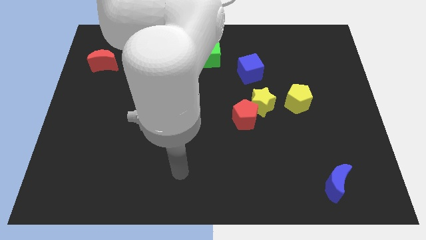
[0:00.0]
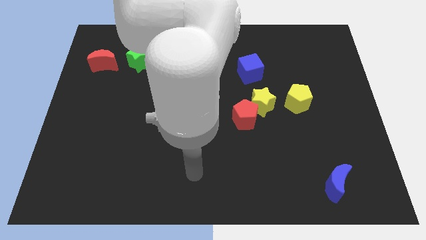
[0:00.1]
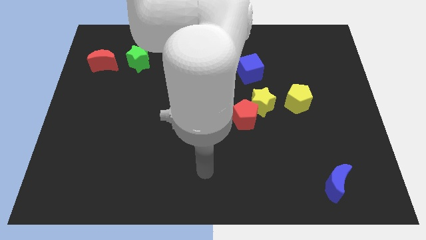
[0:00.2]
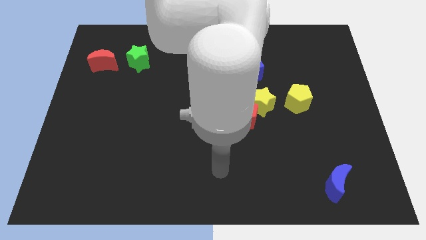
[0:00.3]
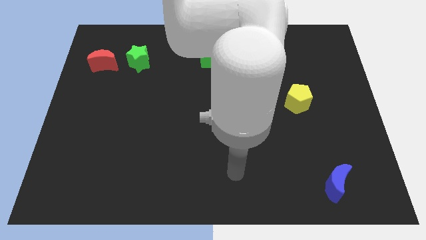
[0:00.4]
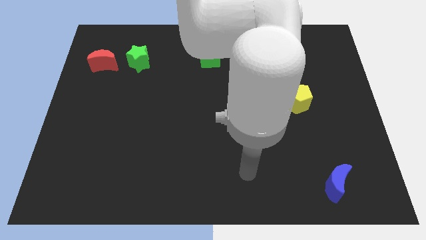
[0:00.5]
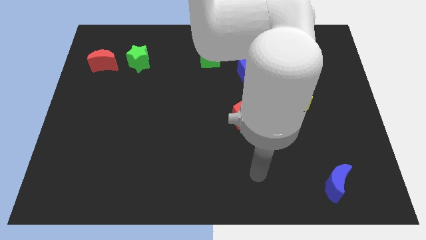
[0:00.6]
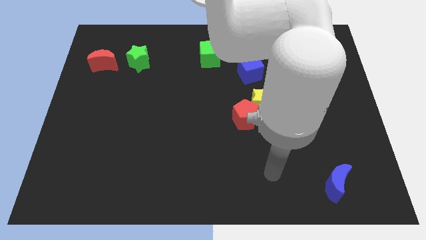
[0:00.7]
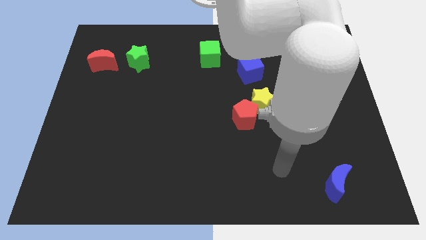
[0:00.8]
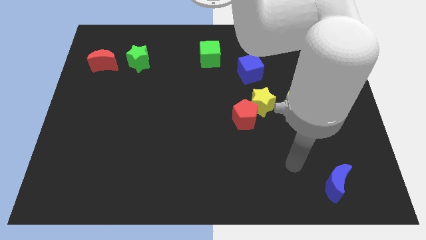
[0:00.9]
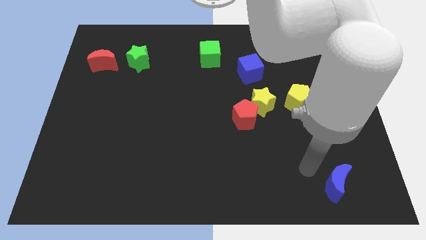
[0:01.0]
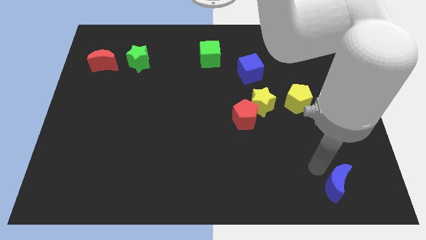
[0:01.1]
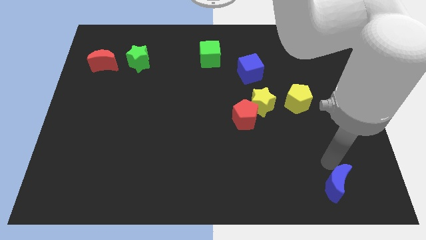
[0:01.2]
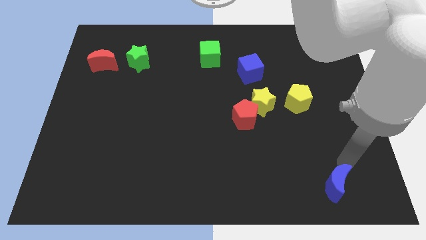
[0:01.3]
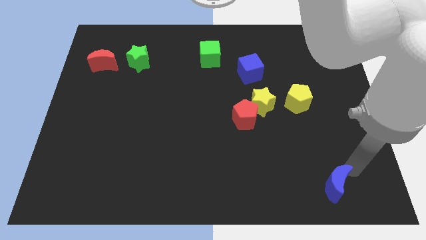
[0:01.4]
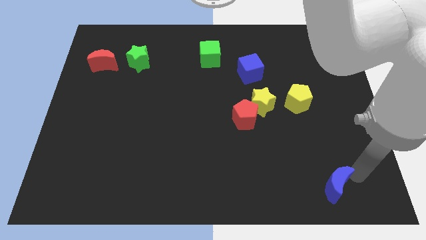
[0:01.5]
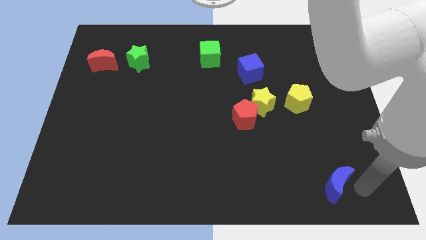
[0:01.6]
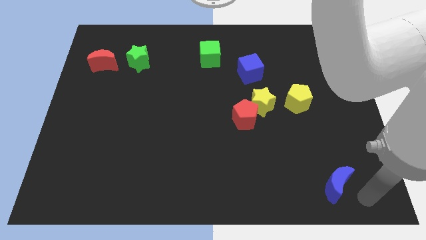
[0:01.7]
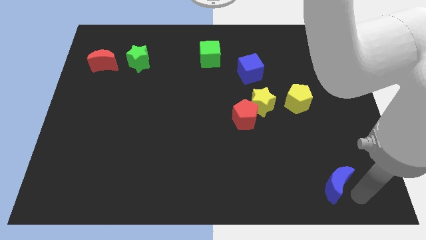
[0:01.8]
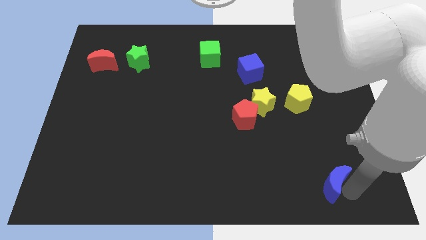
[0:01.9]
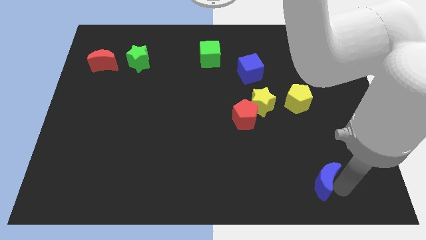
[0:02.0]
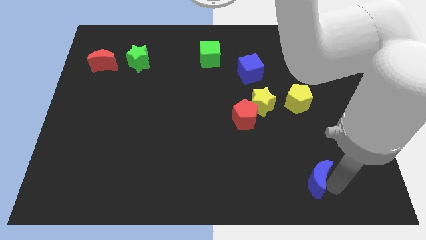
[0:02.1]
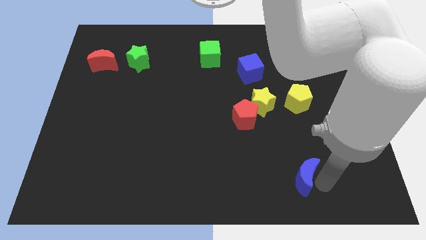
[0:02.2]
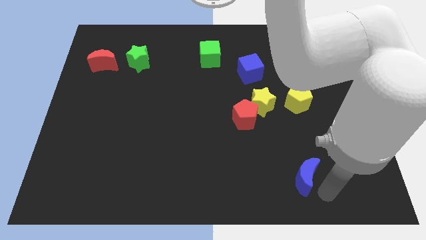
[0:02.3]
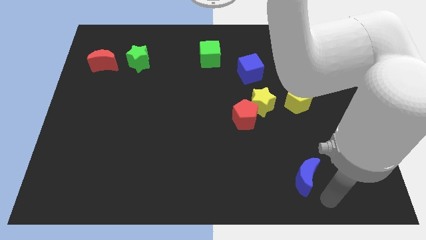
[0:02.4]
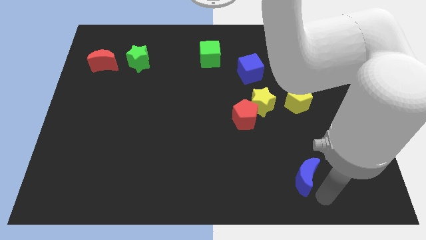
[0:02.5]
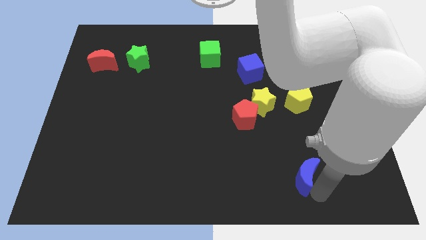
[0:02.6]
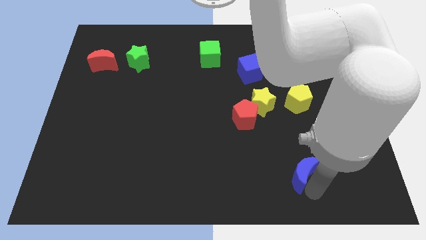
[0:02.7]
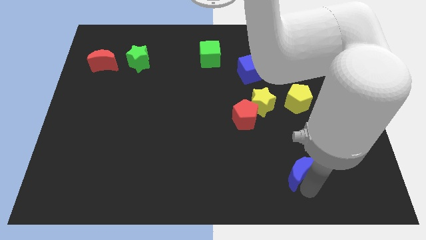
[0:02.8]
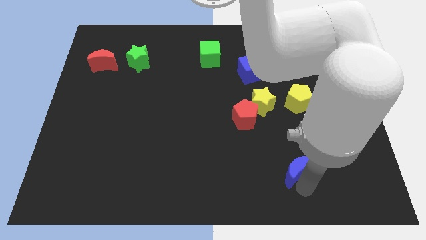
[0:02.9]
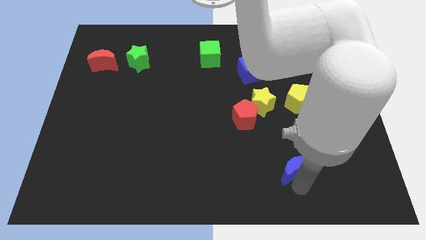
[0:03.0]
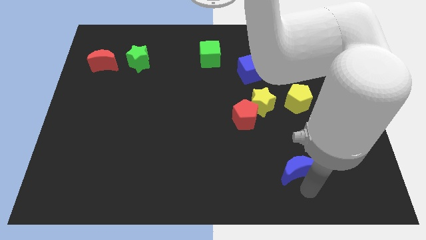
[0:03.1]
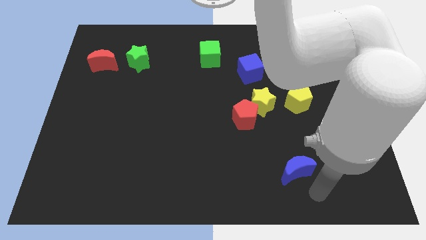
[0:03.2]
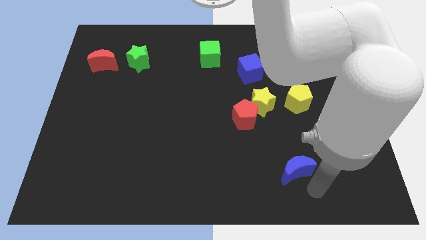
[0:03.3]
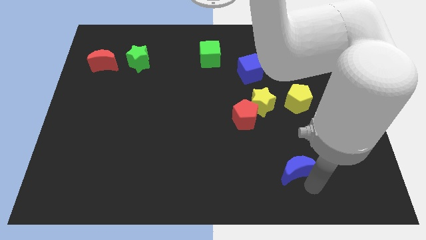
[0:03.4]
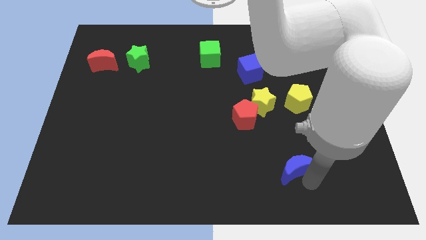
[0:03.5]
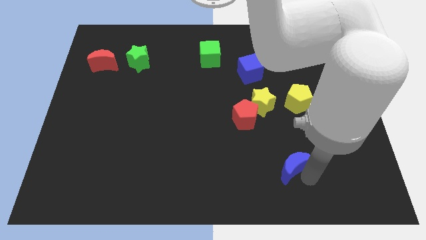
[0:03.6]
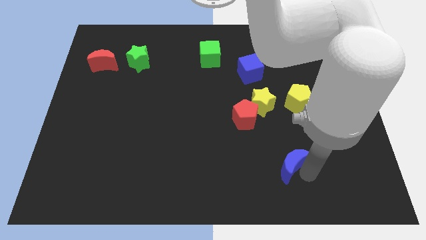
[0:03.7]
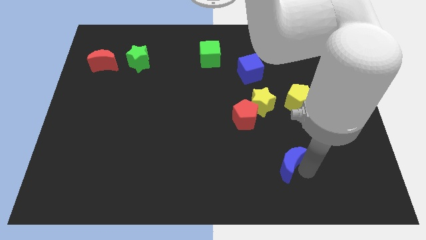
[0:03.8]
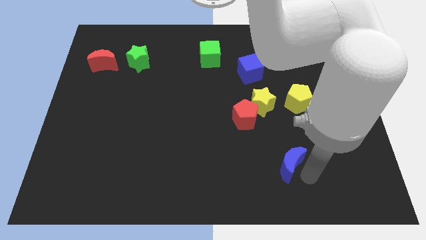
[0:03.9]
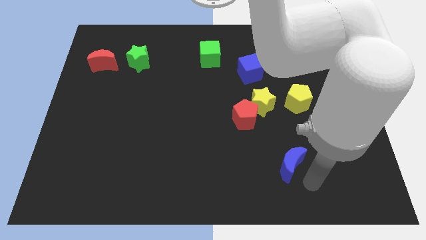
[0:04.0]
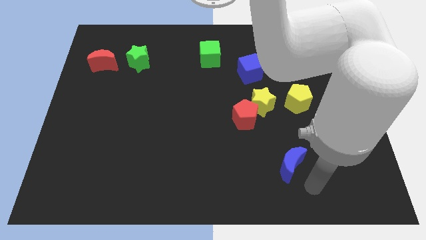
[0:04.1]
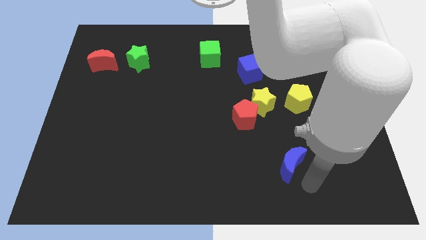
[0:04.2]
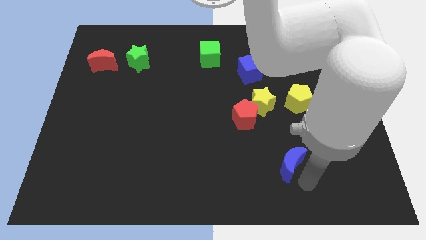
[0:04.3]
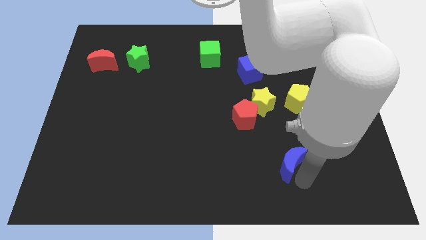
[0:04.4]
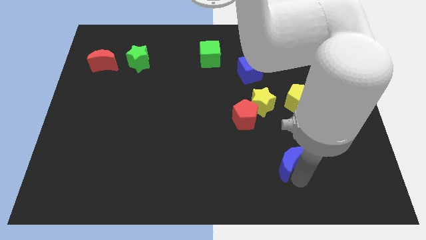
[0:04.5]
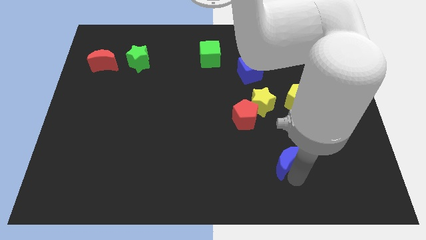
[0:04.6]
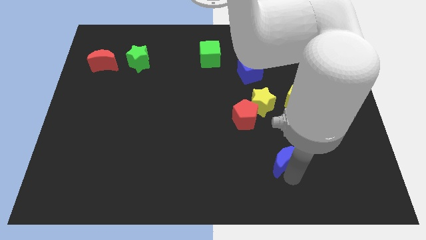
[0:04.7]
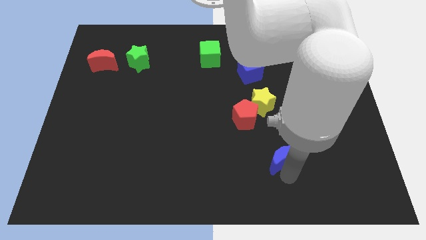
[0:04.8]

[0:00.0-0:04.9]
slide the blue moon below the yellow star

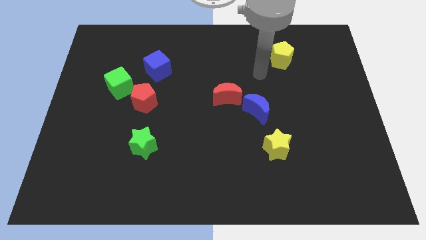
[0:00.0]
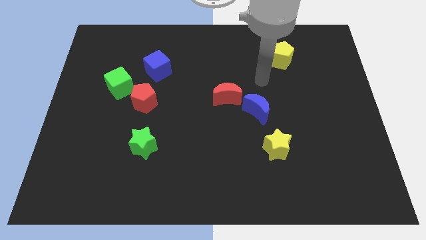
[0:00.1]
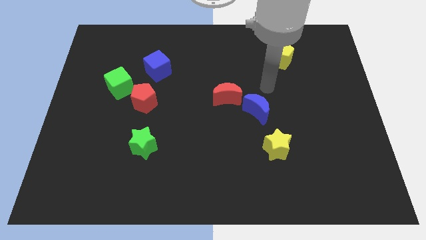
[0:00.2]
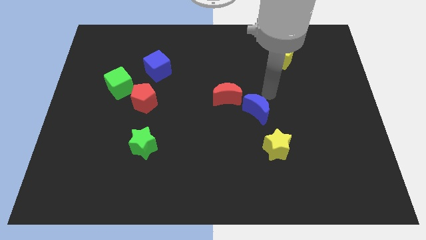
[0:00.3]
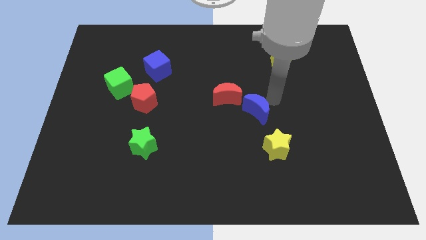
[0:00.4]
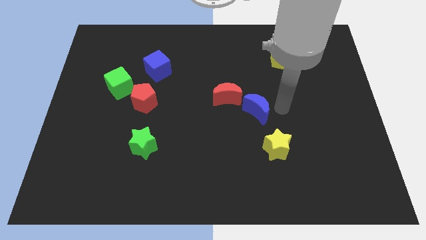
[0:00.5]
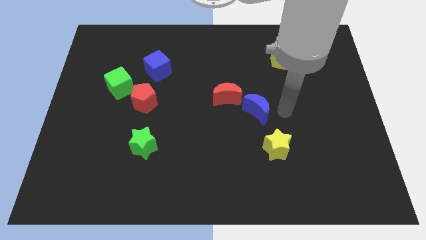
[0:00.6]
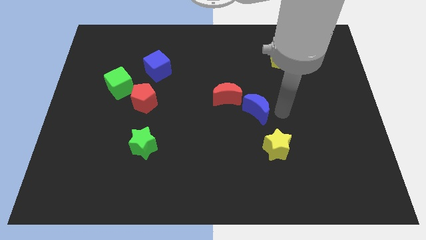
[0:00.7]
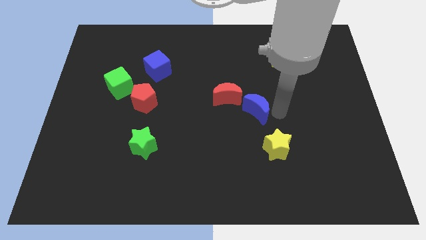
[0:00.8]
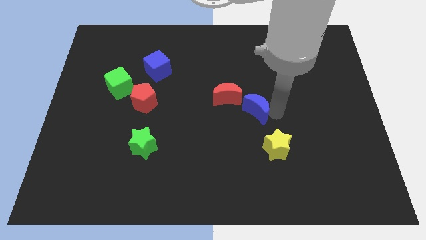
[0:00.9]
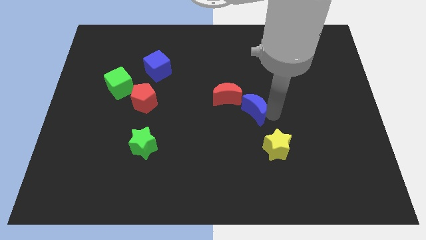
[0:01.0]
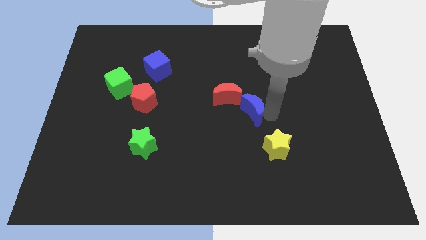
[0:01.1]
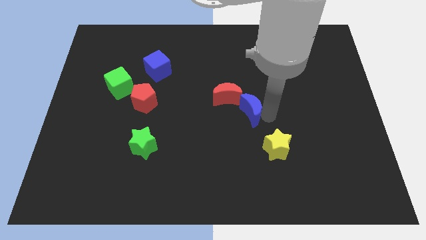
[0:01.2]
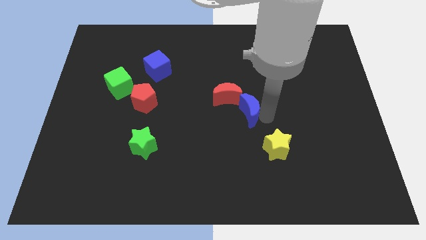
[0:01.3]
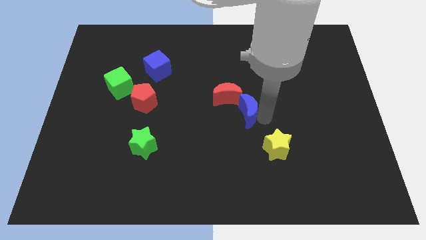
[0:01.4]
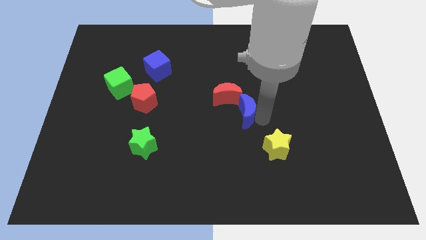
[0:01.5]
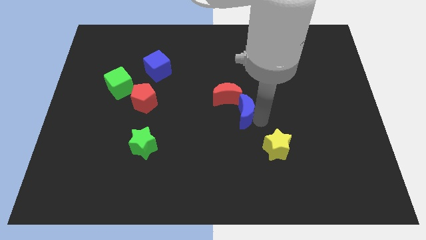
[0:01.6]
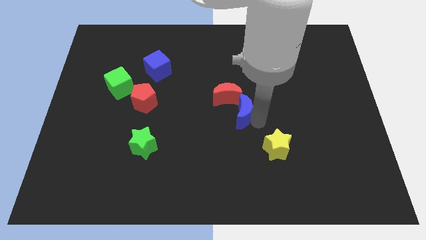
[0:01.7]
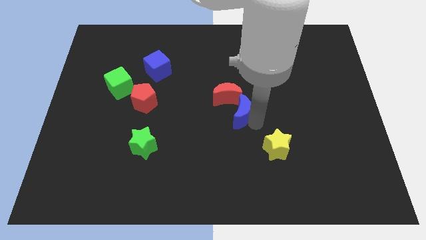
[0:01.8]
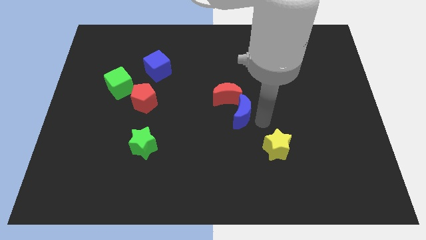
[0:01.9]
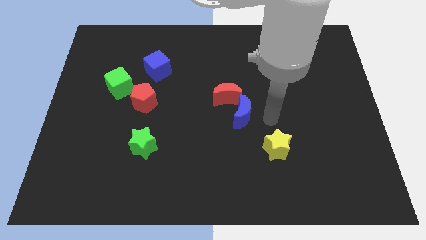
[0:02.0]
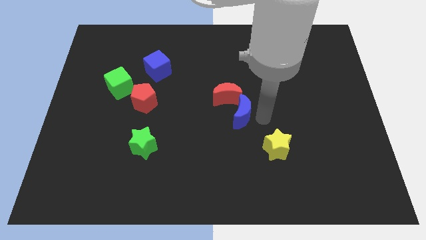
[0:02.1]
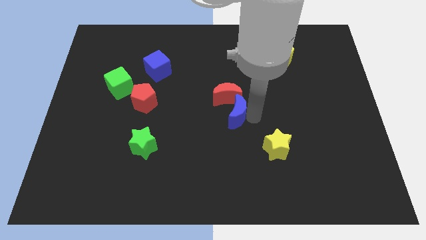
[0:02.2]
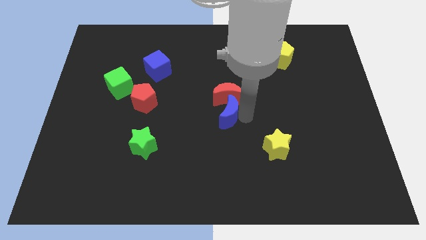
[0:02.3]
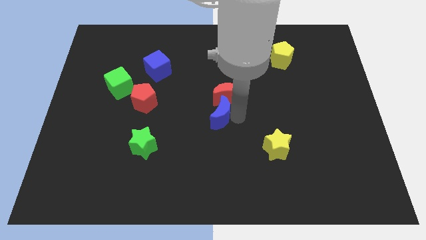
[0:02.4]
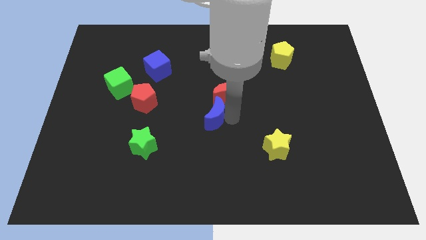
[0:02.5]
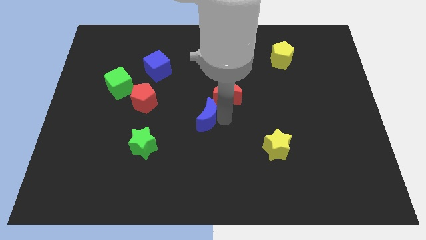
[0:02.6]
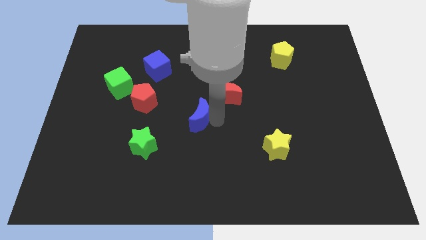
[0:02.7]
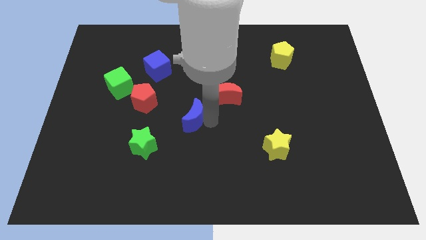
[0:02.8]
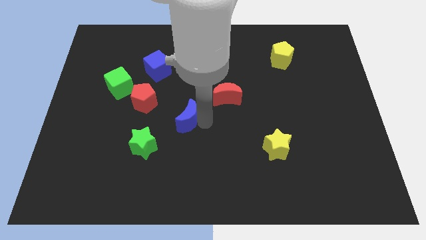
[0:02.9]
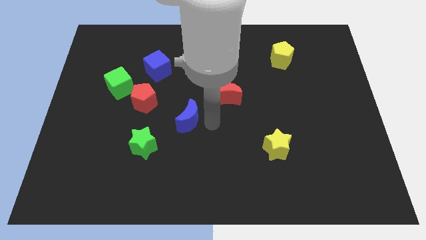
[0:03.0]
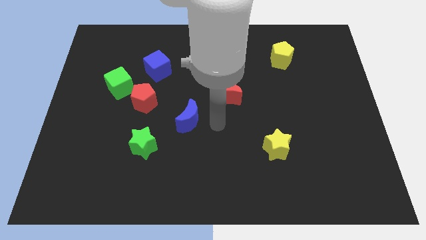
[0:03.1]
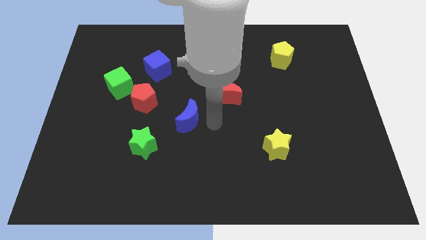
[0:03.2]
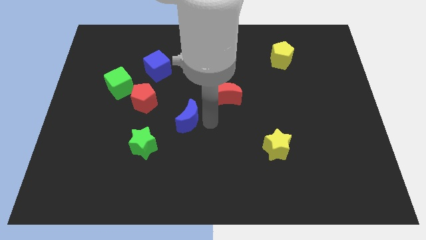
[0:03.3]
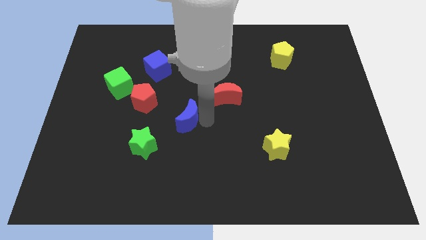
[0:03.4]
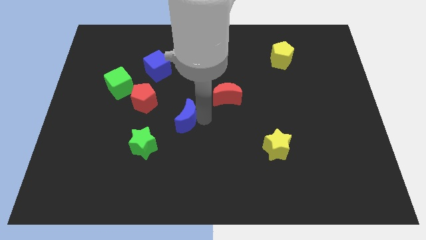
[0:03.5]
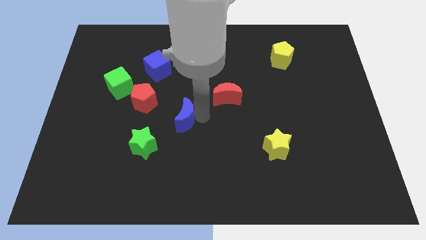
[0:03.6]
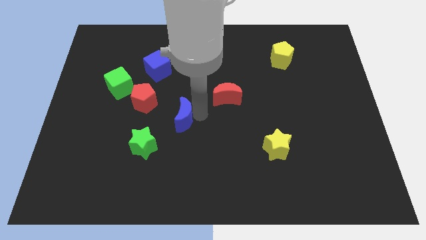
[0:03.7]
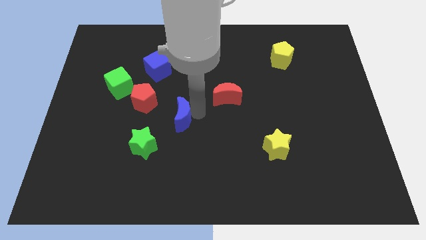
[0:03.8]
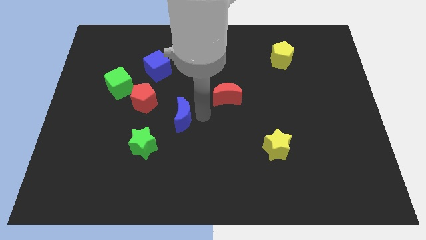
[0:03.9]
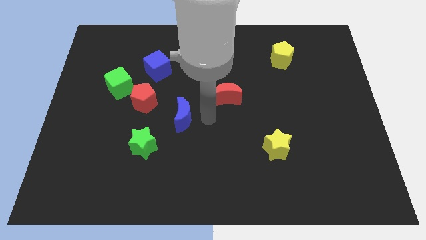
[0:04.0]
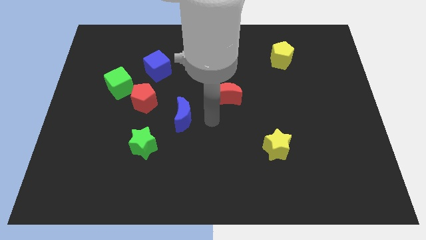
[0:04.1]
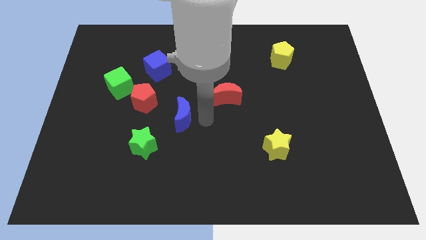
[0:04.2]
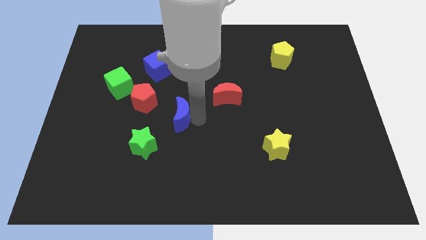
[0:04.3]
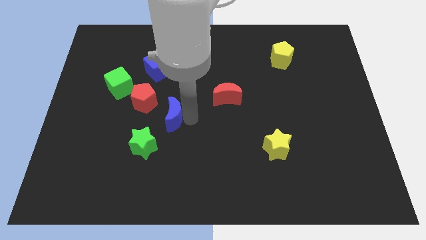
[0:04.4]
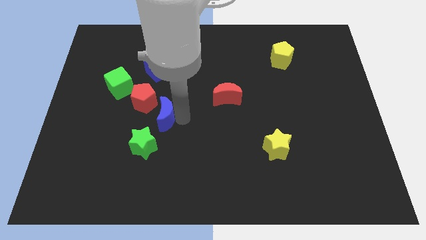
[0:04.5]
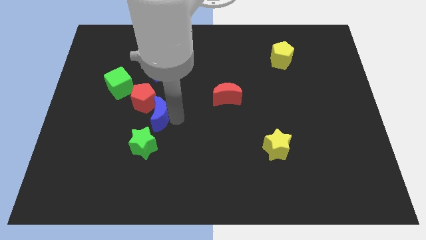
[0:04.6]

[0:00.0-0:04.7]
push the blue moon to the bottom side of the blue cube
